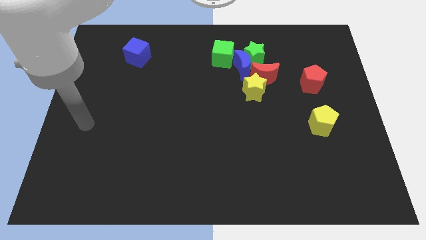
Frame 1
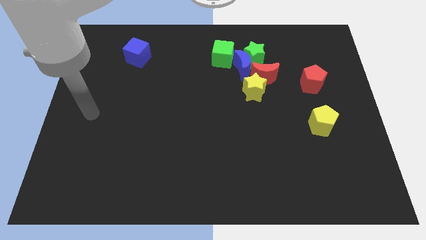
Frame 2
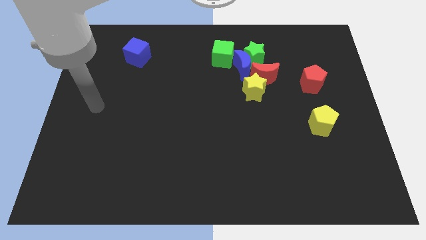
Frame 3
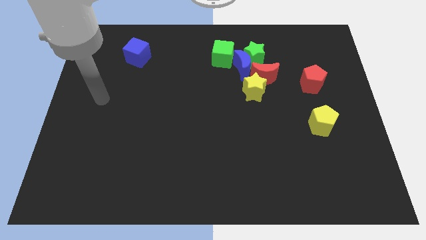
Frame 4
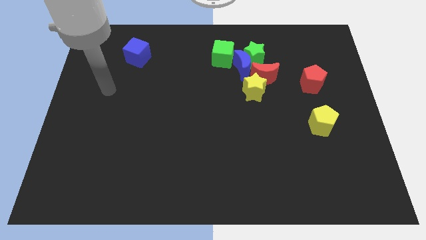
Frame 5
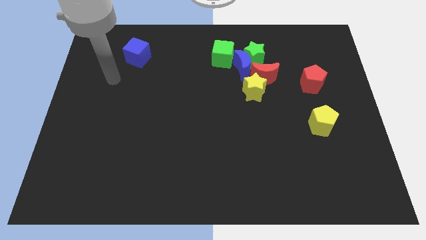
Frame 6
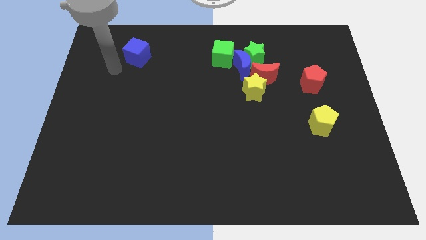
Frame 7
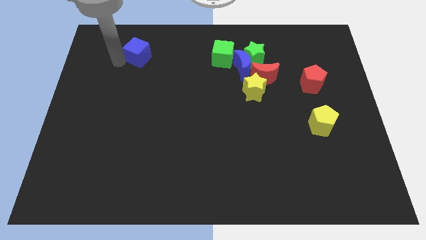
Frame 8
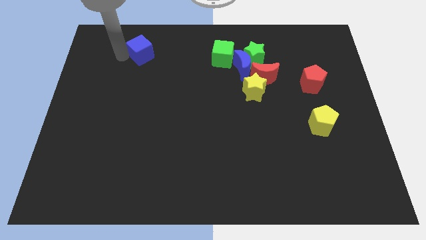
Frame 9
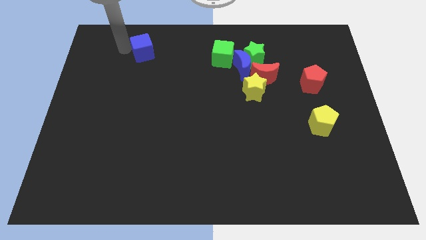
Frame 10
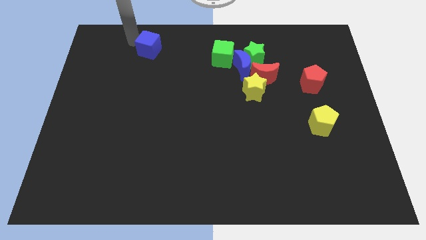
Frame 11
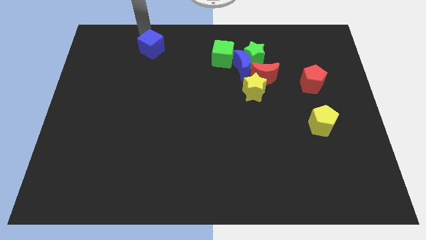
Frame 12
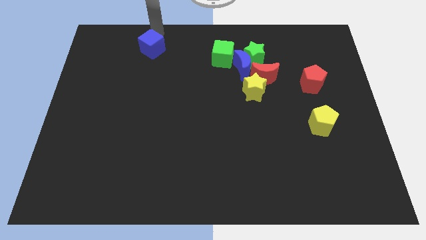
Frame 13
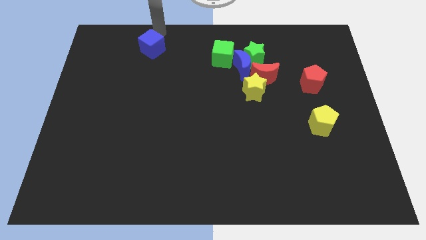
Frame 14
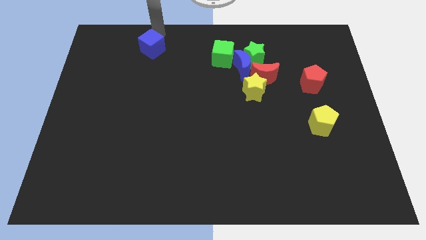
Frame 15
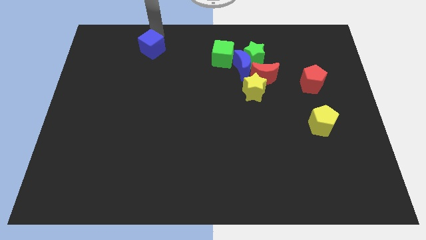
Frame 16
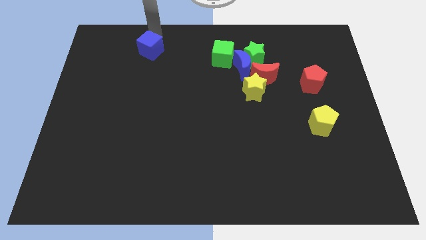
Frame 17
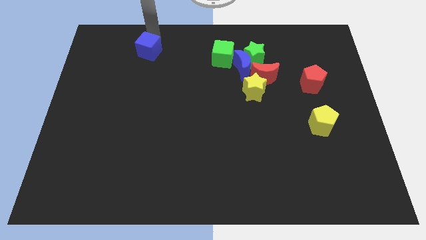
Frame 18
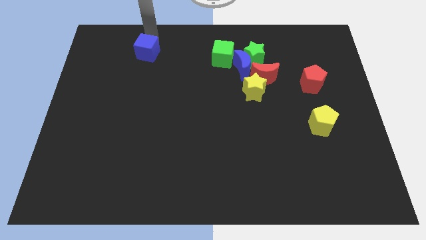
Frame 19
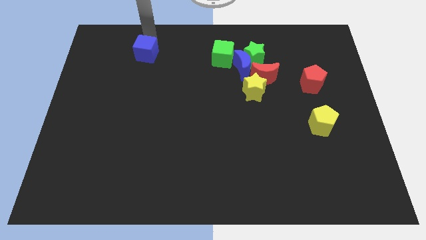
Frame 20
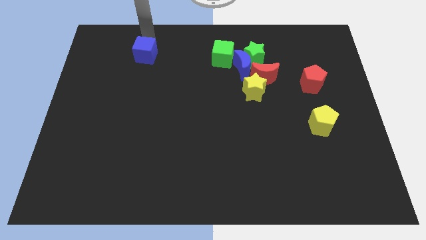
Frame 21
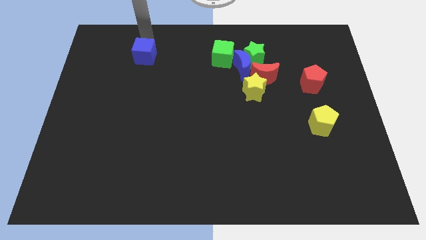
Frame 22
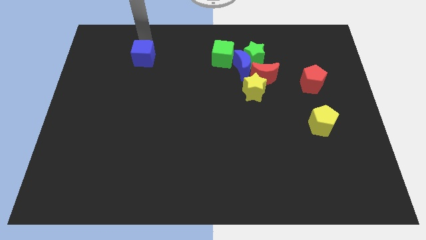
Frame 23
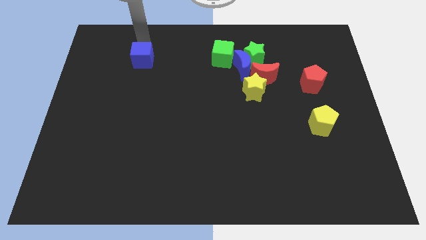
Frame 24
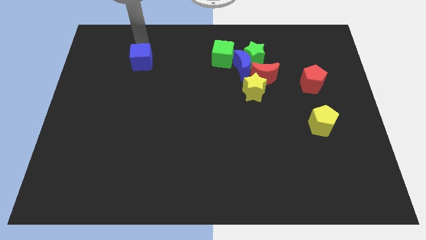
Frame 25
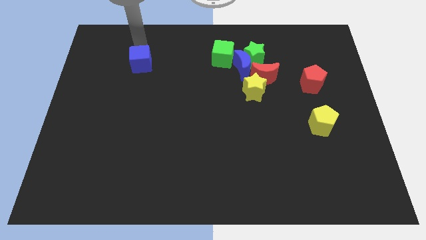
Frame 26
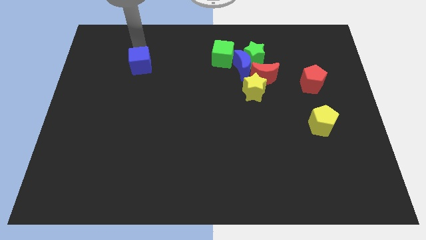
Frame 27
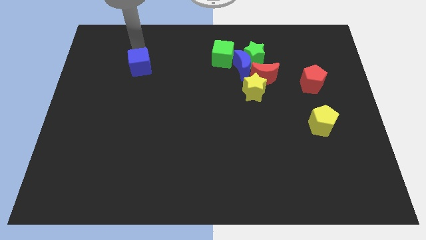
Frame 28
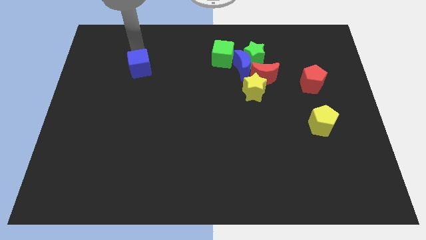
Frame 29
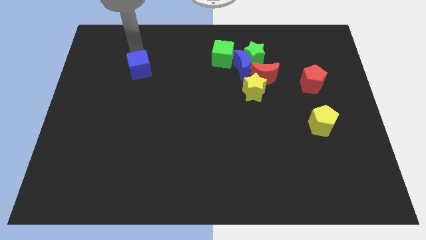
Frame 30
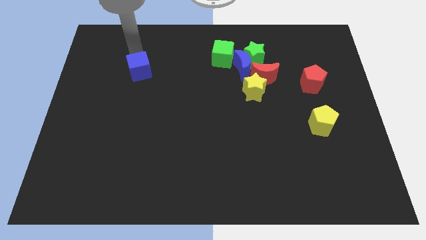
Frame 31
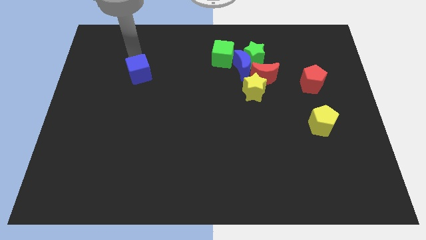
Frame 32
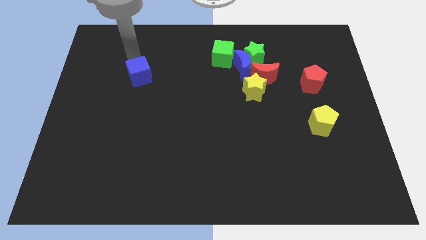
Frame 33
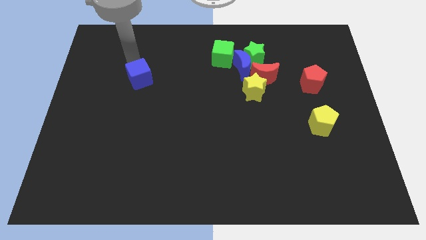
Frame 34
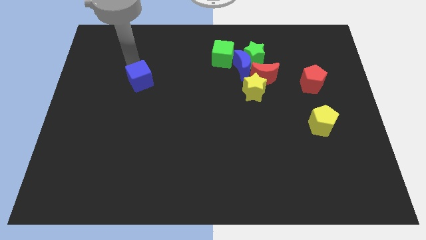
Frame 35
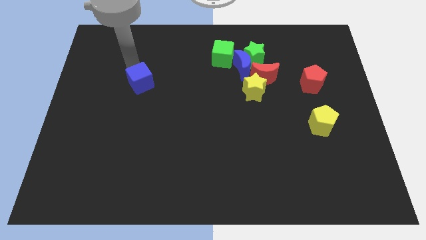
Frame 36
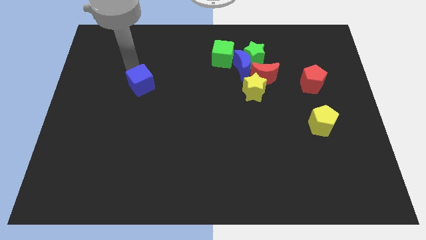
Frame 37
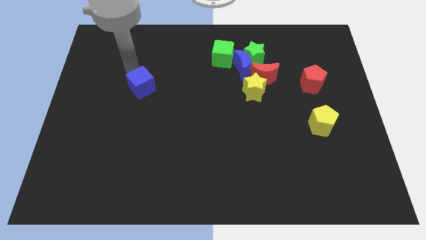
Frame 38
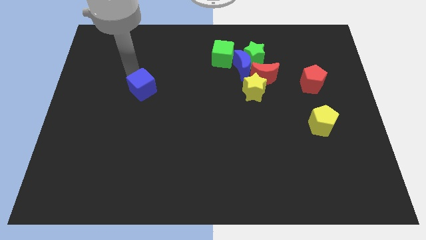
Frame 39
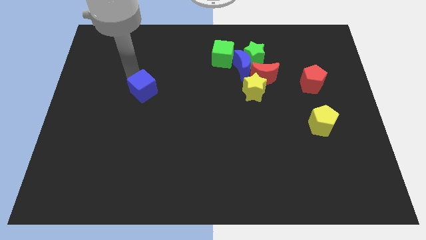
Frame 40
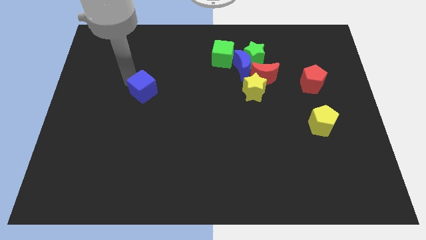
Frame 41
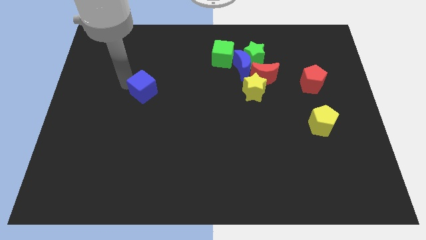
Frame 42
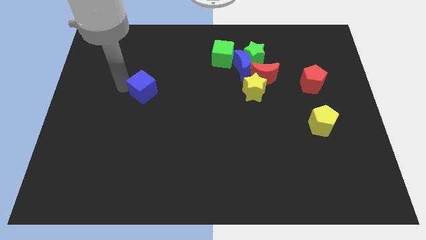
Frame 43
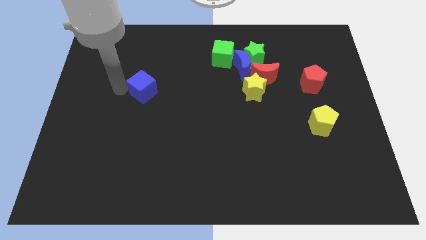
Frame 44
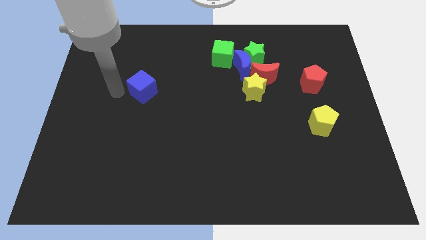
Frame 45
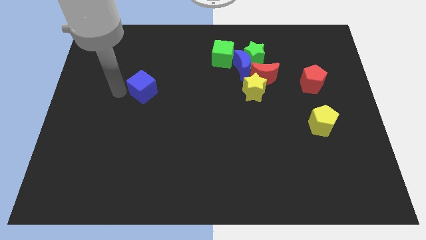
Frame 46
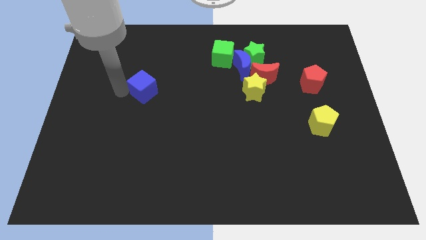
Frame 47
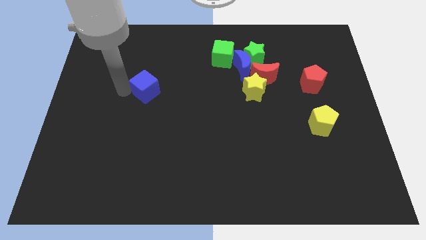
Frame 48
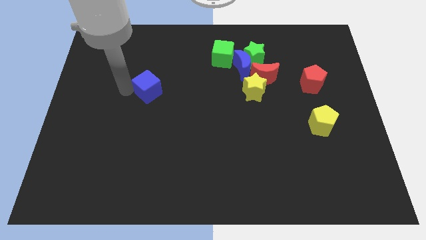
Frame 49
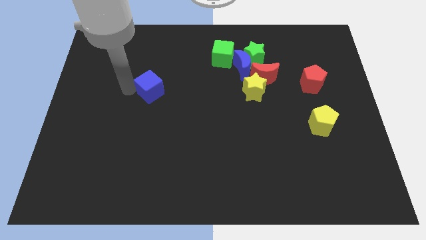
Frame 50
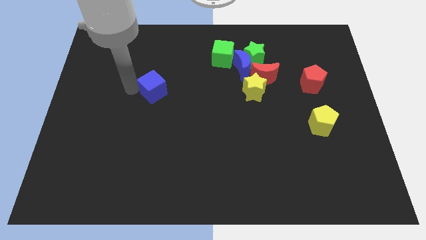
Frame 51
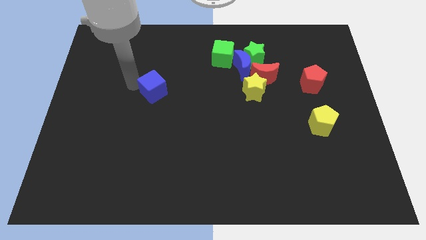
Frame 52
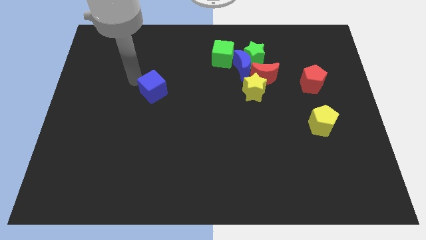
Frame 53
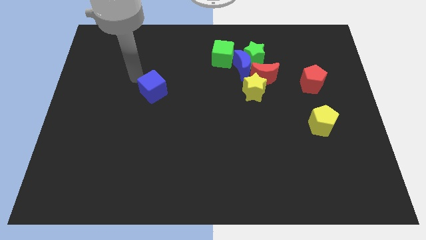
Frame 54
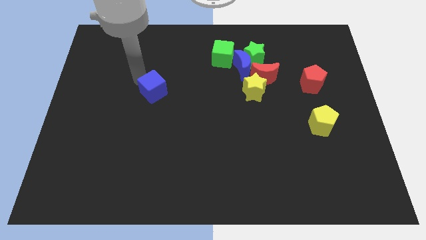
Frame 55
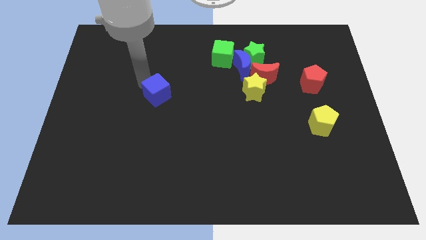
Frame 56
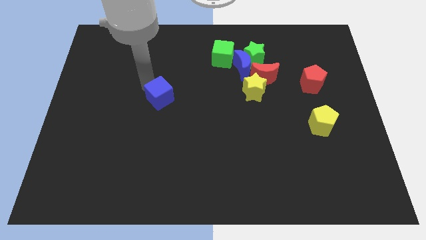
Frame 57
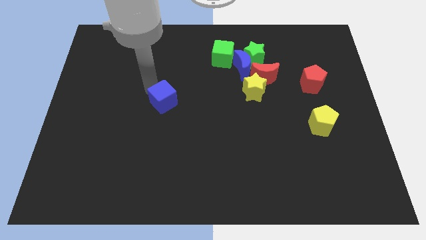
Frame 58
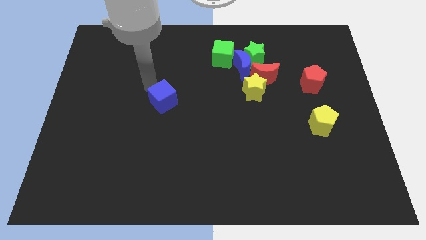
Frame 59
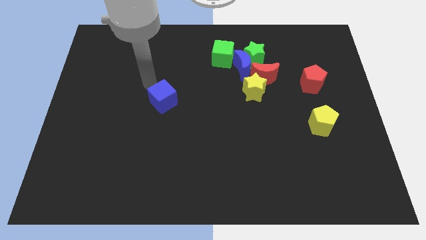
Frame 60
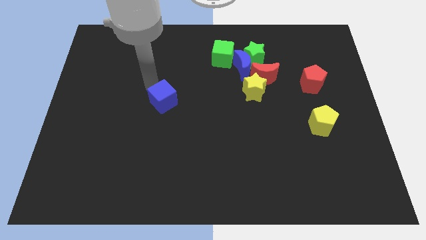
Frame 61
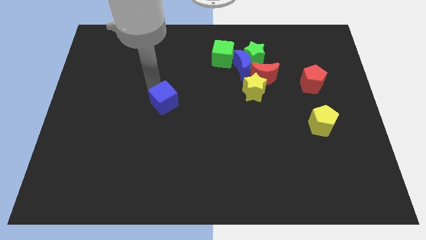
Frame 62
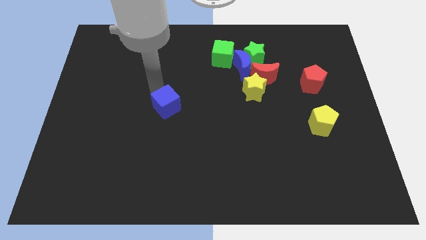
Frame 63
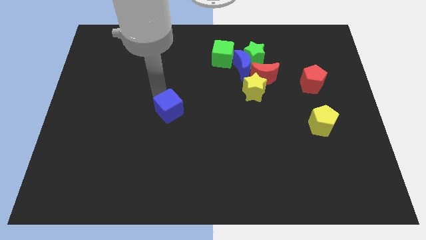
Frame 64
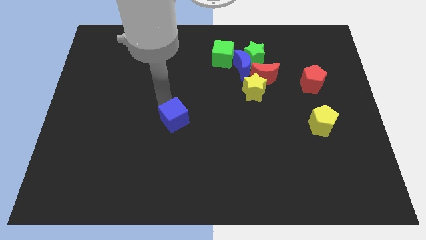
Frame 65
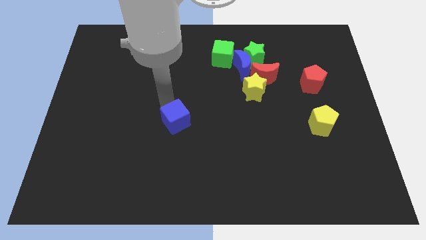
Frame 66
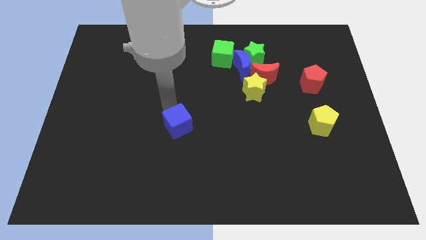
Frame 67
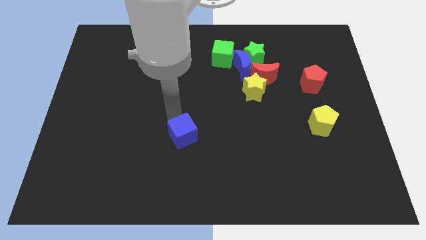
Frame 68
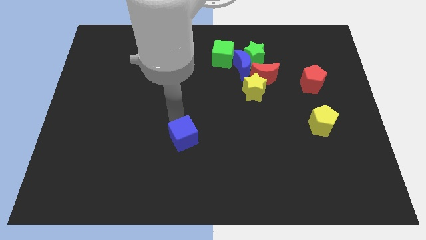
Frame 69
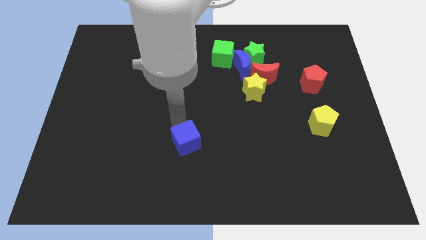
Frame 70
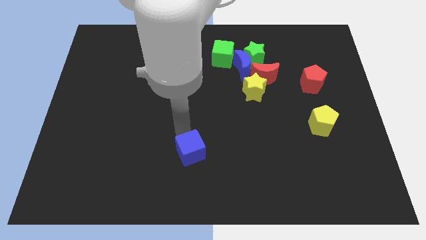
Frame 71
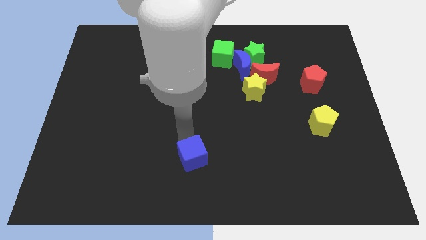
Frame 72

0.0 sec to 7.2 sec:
move the blue cube to the bottom
